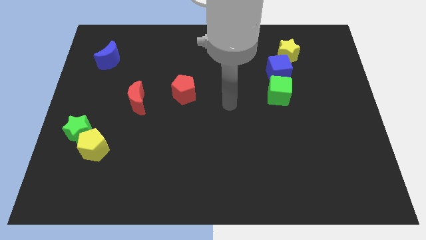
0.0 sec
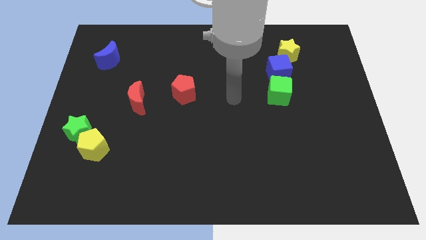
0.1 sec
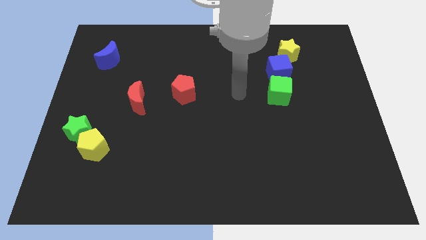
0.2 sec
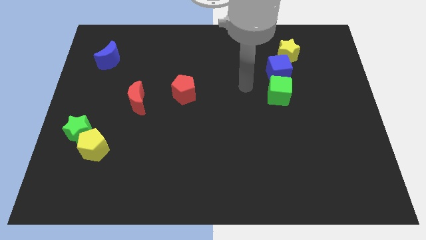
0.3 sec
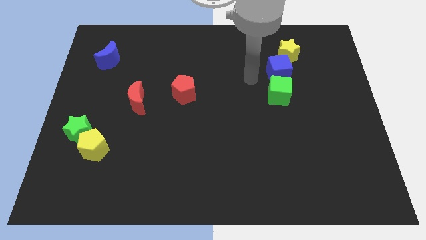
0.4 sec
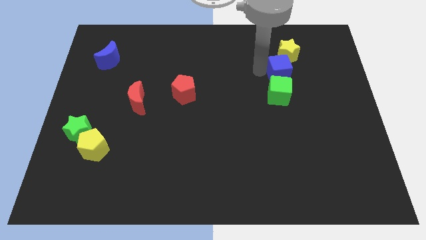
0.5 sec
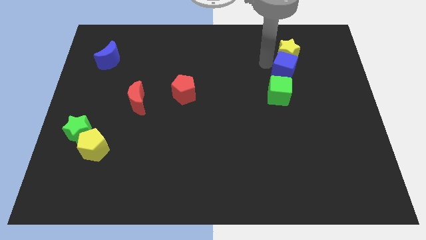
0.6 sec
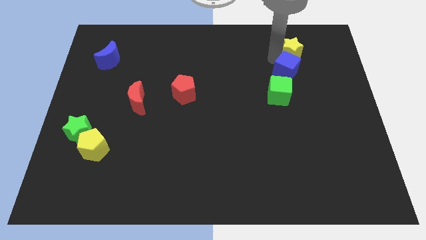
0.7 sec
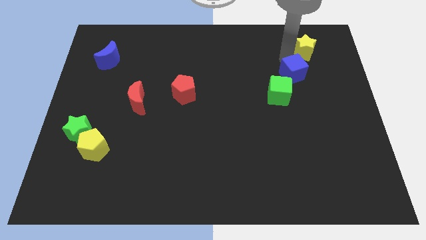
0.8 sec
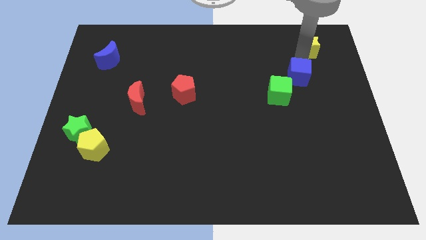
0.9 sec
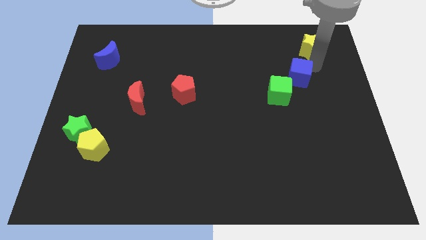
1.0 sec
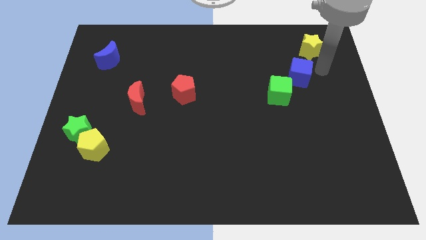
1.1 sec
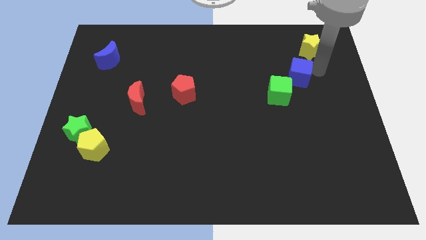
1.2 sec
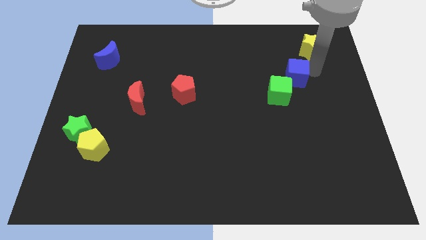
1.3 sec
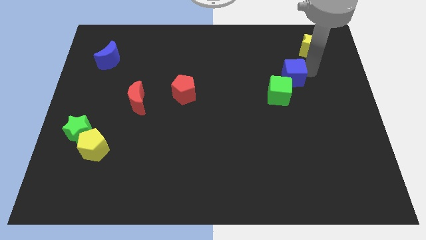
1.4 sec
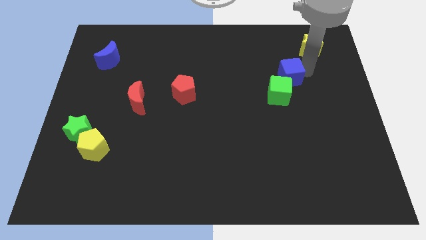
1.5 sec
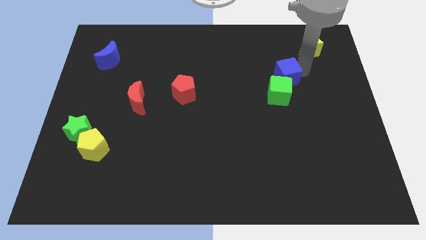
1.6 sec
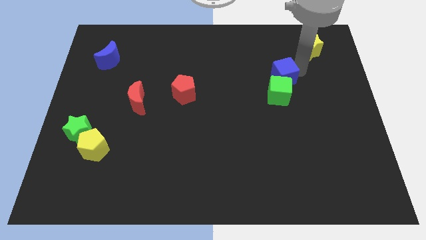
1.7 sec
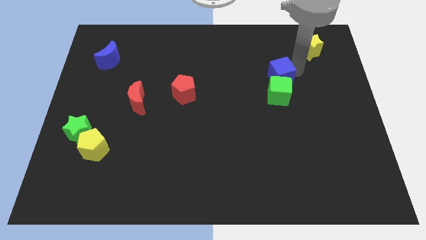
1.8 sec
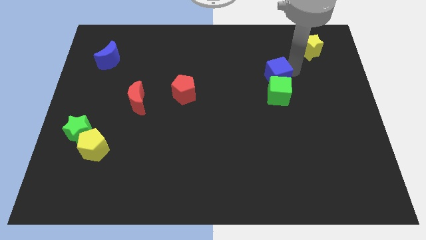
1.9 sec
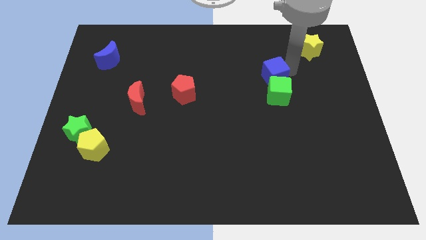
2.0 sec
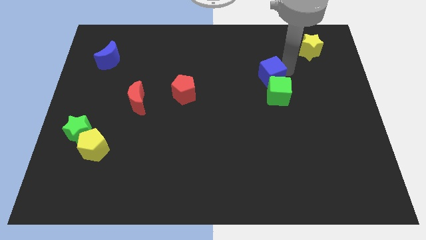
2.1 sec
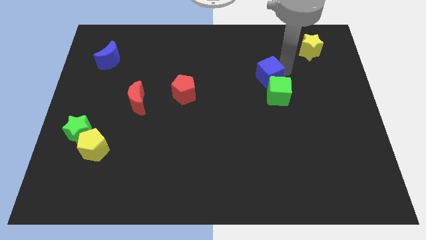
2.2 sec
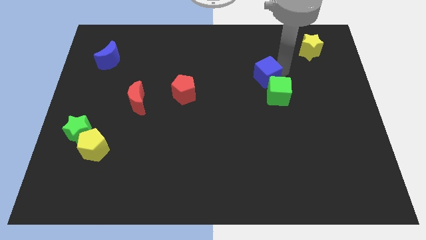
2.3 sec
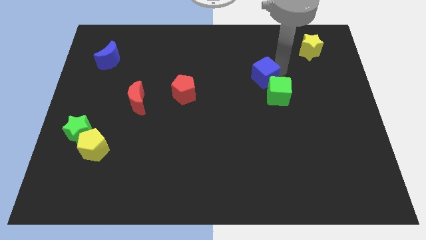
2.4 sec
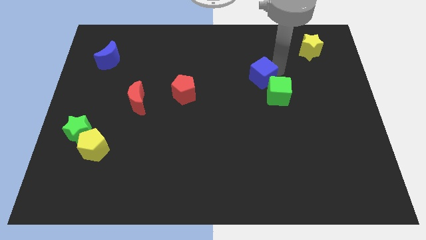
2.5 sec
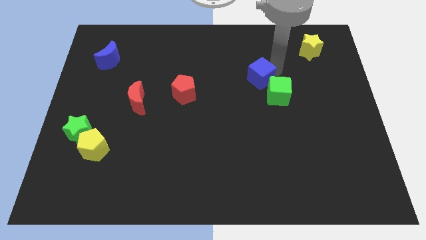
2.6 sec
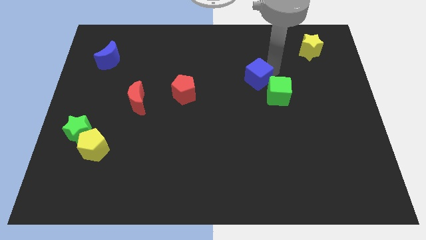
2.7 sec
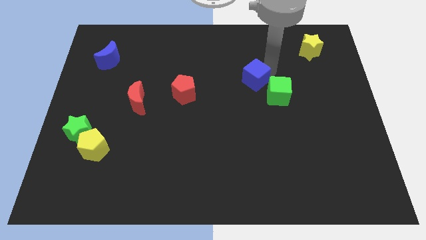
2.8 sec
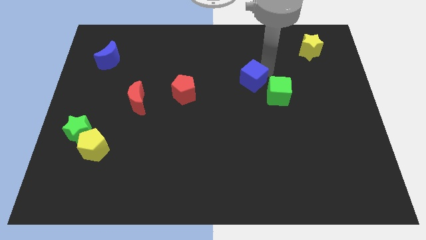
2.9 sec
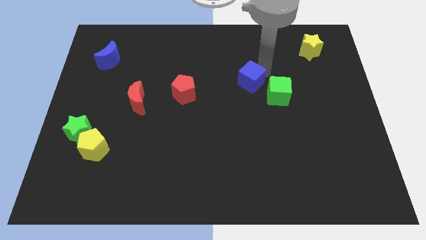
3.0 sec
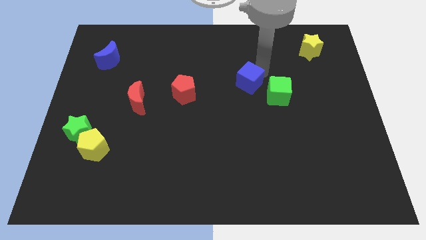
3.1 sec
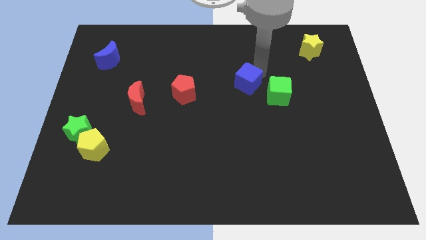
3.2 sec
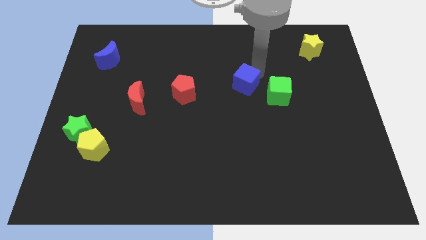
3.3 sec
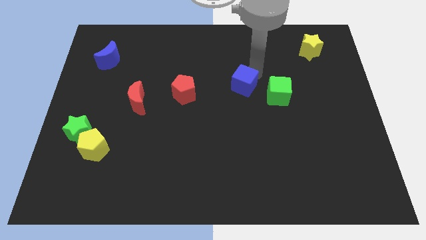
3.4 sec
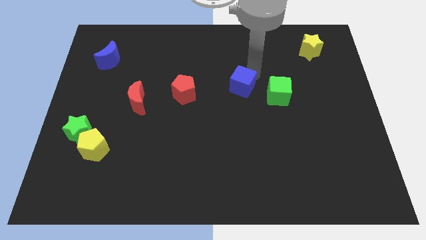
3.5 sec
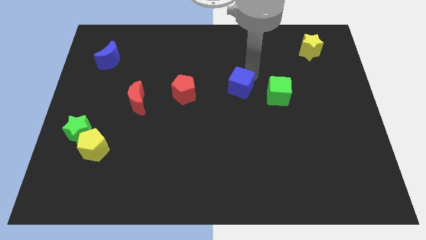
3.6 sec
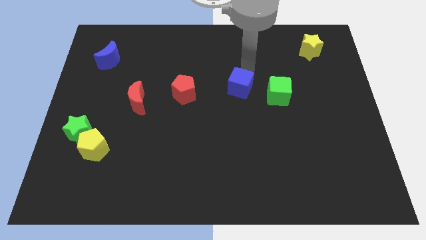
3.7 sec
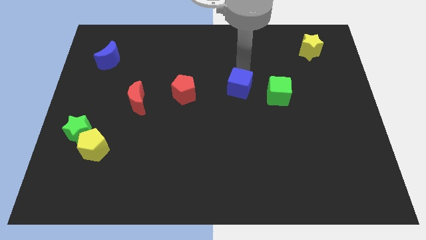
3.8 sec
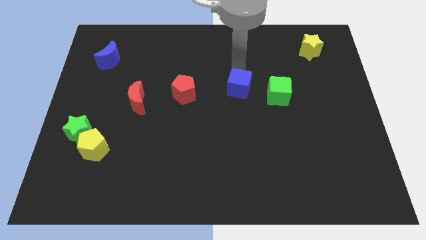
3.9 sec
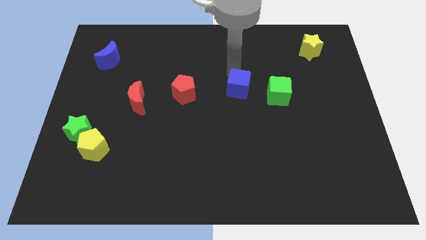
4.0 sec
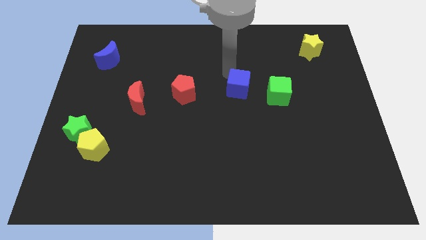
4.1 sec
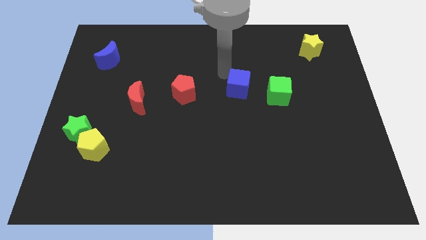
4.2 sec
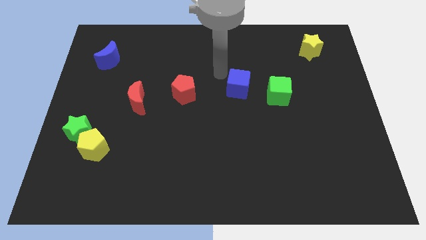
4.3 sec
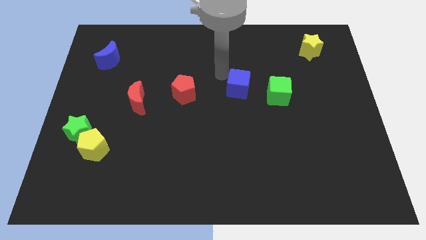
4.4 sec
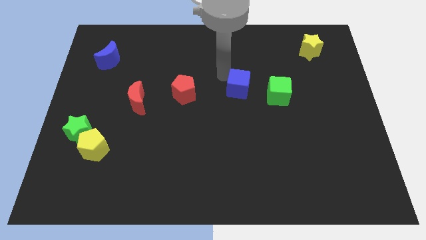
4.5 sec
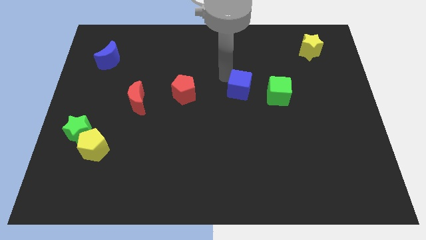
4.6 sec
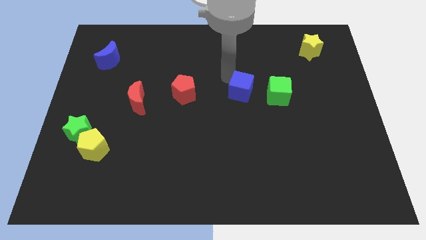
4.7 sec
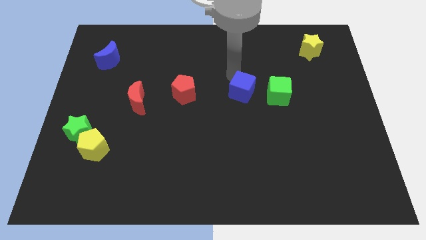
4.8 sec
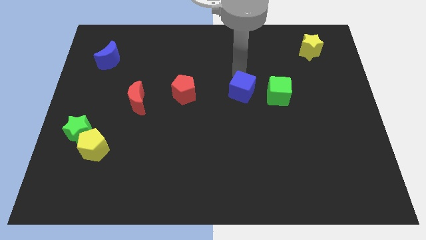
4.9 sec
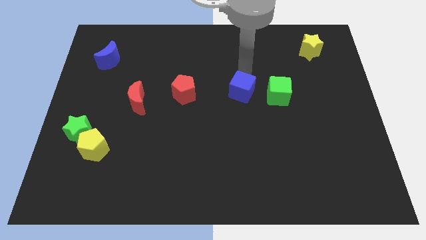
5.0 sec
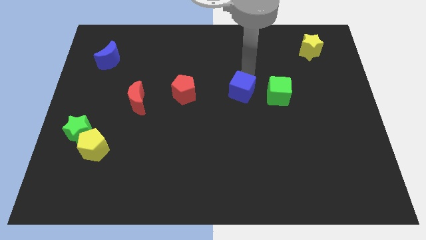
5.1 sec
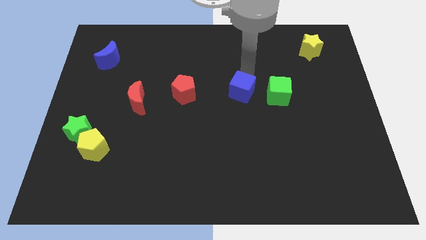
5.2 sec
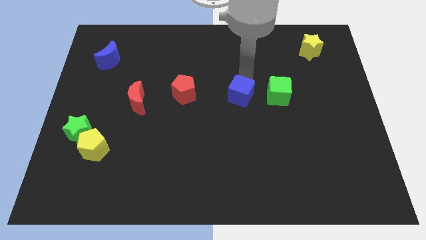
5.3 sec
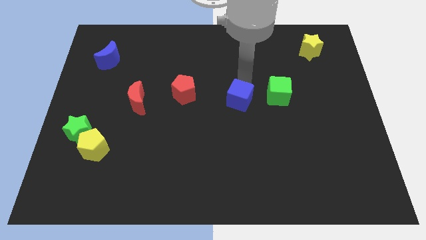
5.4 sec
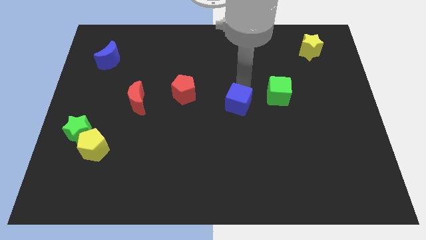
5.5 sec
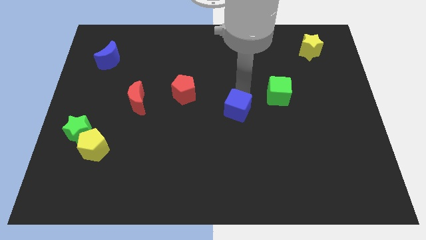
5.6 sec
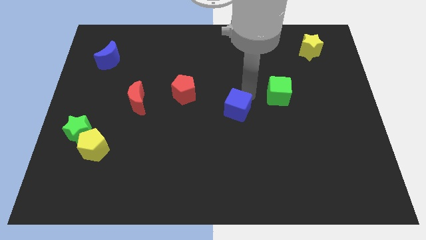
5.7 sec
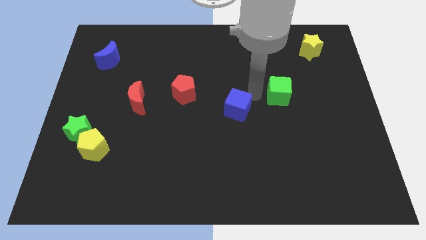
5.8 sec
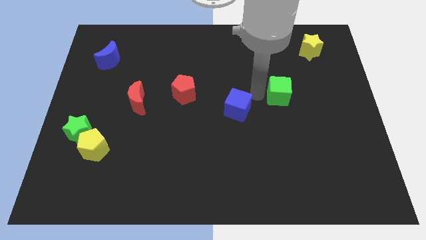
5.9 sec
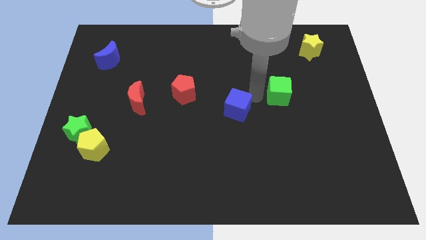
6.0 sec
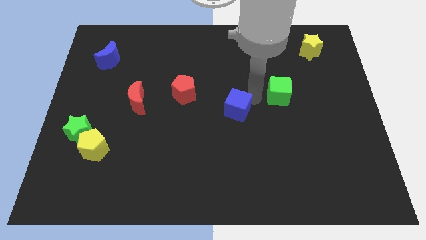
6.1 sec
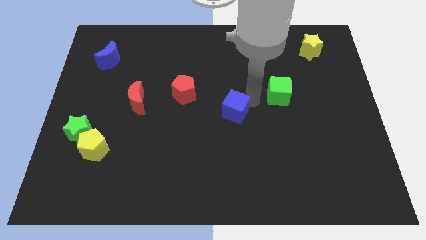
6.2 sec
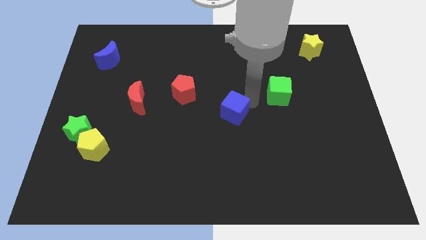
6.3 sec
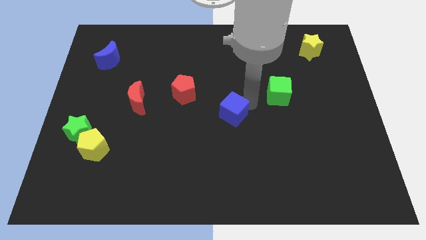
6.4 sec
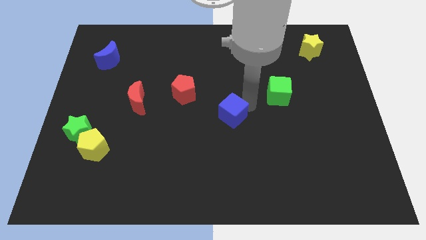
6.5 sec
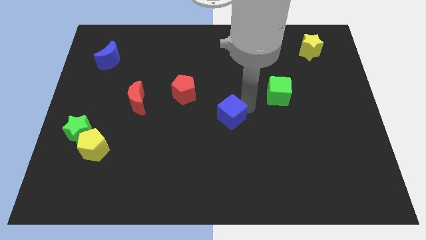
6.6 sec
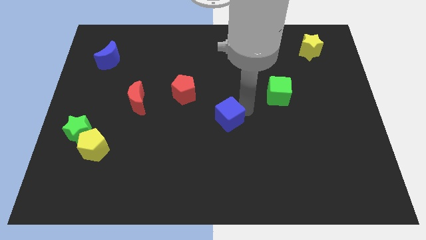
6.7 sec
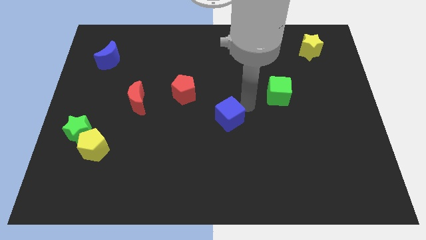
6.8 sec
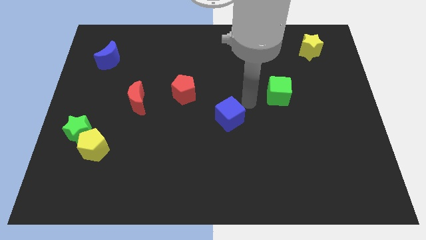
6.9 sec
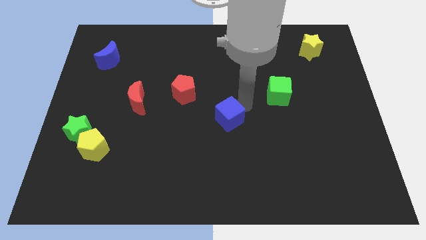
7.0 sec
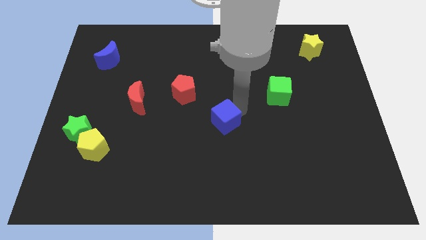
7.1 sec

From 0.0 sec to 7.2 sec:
push the blue cube diagonally down and to the left

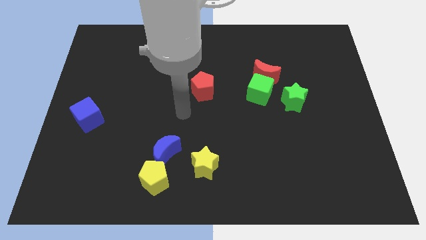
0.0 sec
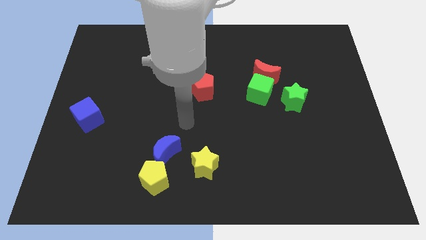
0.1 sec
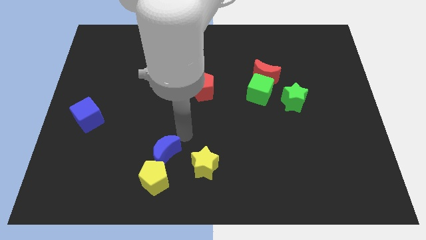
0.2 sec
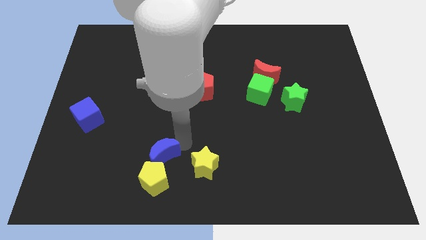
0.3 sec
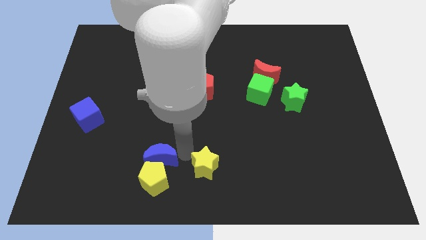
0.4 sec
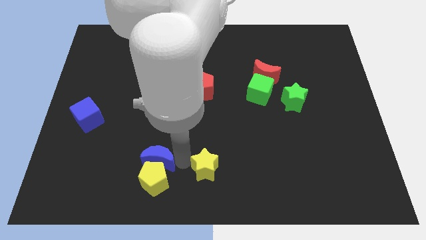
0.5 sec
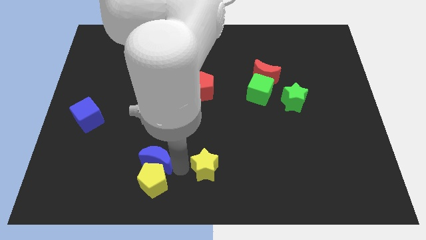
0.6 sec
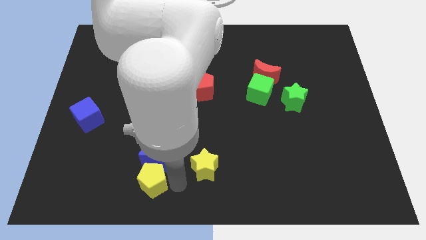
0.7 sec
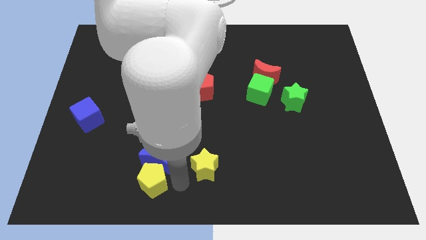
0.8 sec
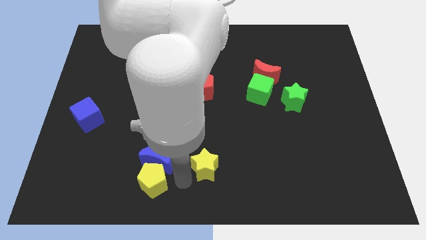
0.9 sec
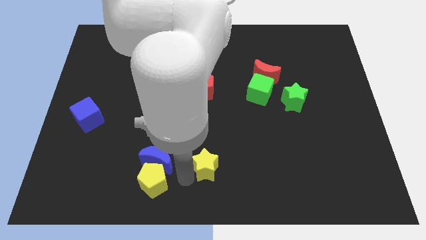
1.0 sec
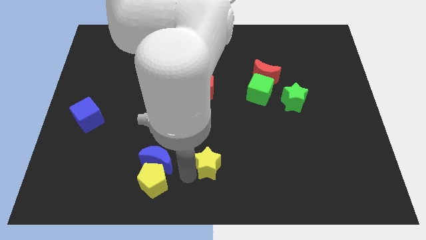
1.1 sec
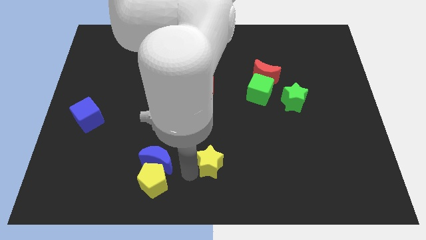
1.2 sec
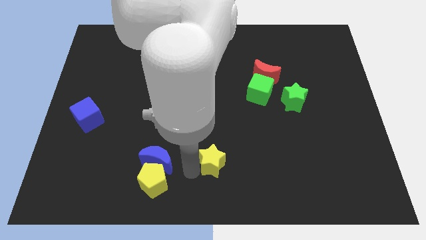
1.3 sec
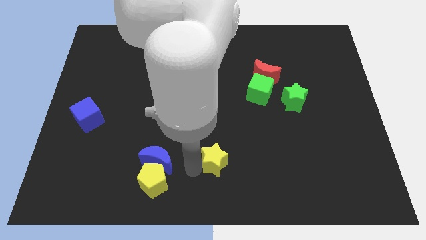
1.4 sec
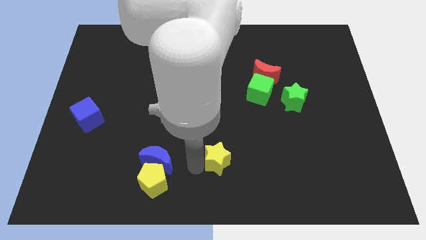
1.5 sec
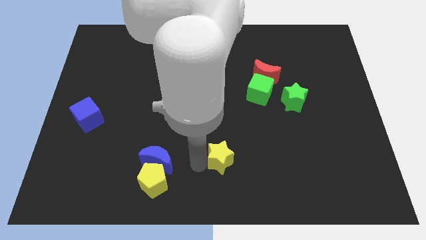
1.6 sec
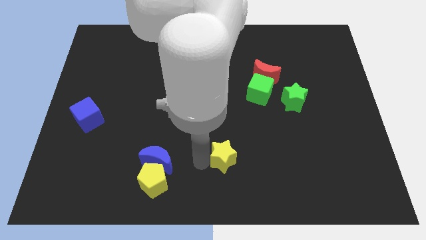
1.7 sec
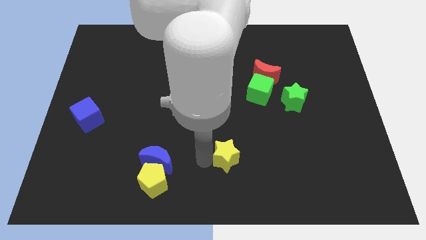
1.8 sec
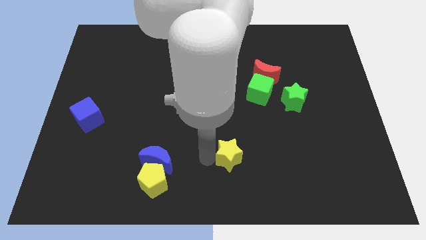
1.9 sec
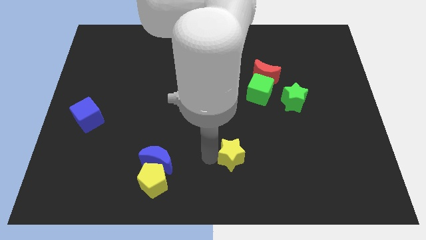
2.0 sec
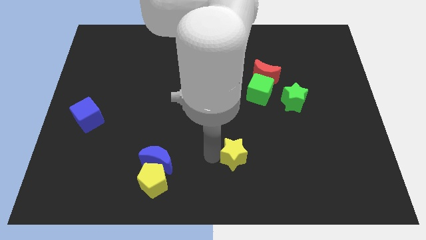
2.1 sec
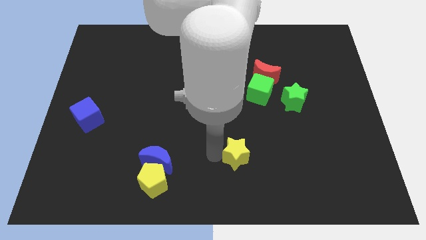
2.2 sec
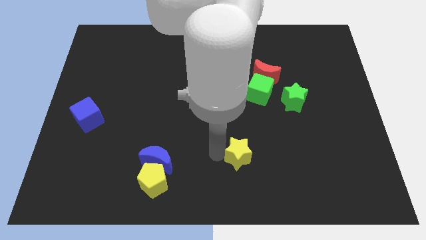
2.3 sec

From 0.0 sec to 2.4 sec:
slightly push the yellow star to the right
